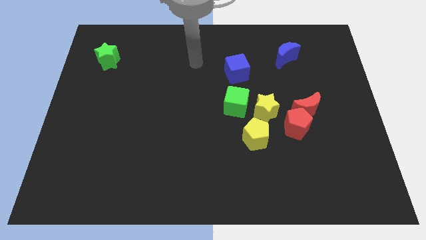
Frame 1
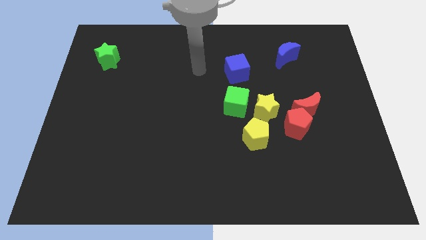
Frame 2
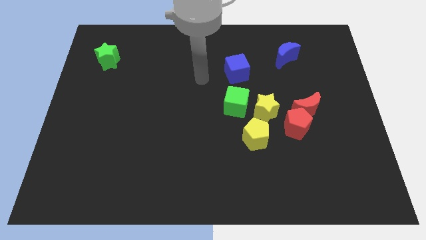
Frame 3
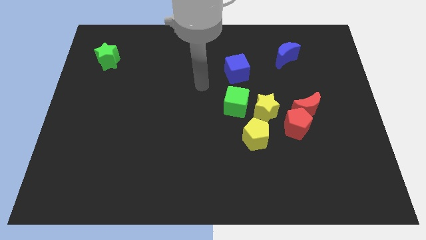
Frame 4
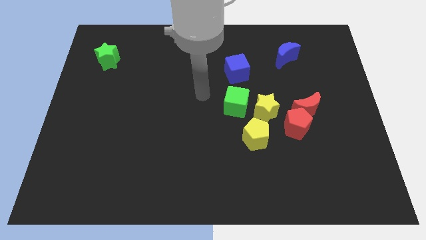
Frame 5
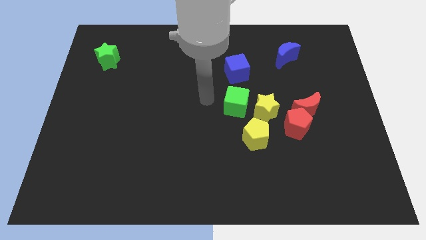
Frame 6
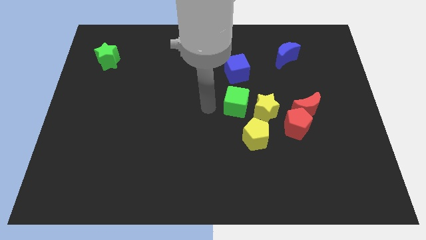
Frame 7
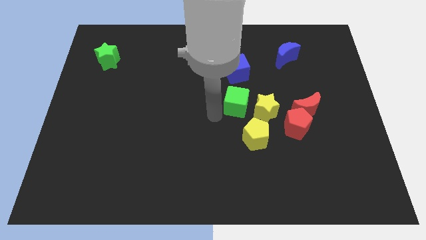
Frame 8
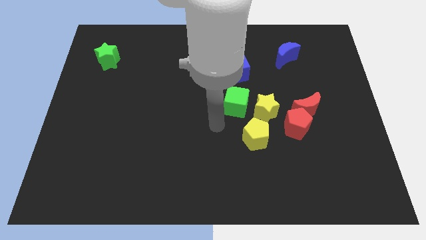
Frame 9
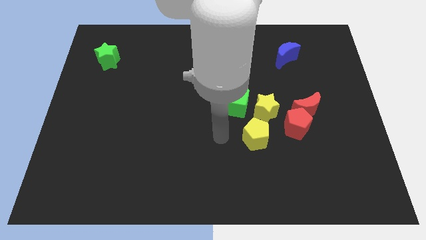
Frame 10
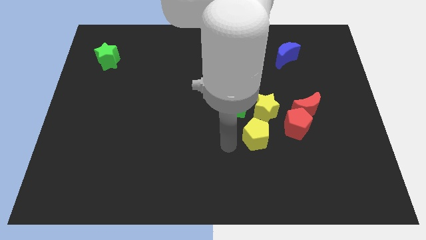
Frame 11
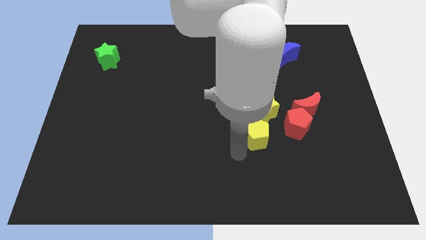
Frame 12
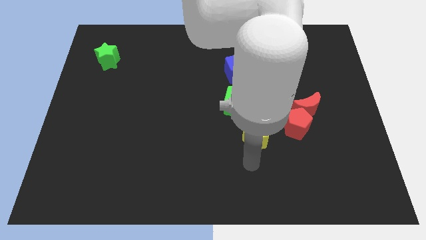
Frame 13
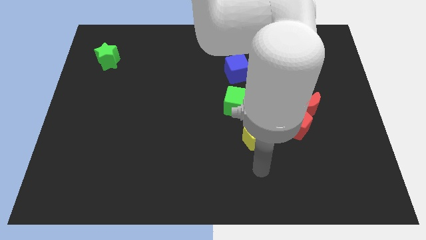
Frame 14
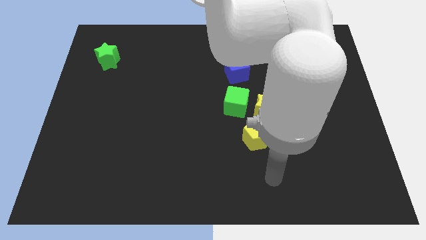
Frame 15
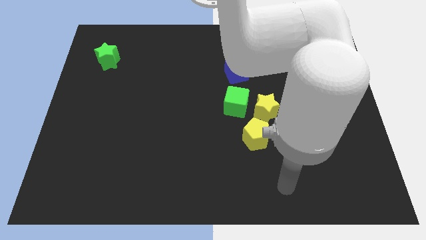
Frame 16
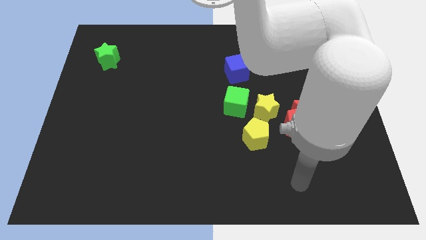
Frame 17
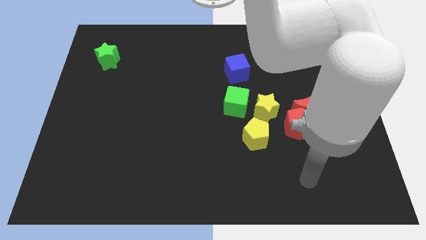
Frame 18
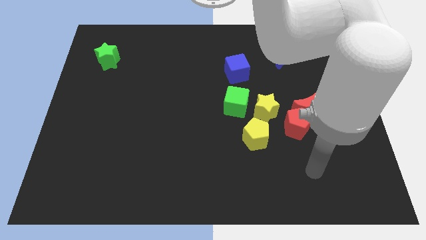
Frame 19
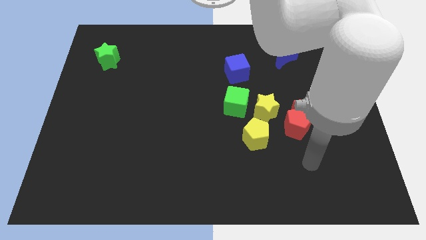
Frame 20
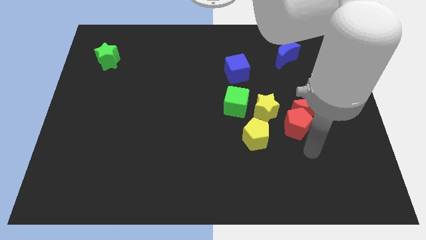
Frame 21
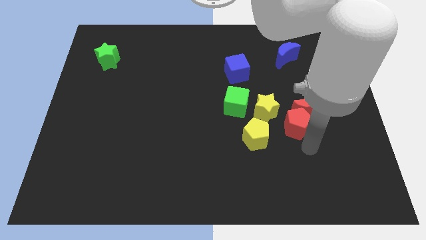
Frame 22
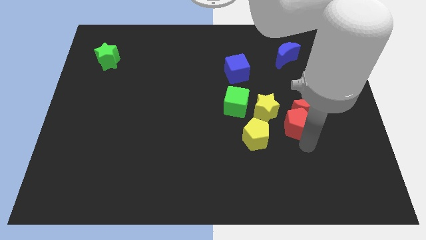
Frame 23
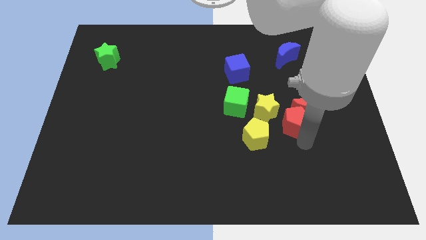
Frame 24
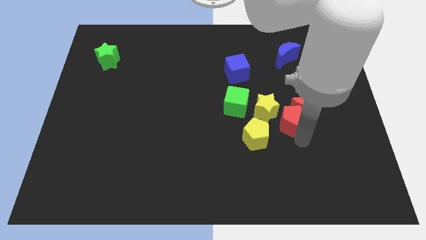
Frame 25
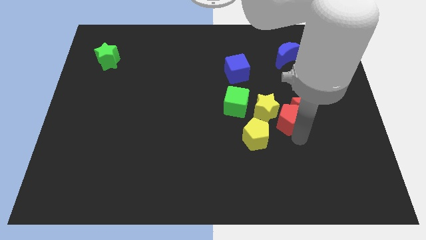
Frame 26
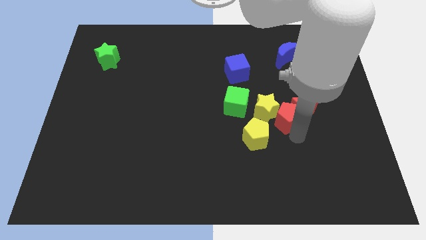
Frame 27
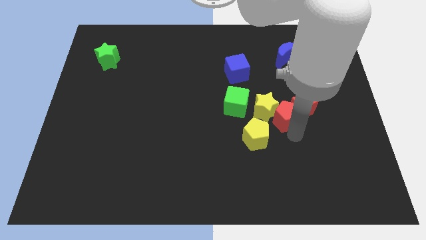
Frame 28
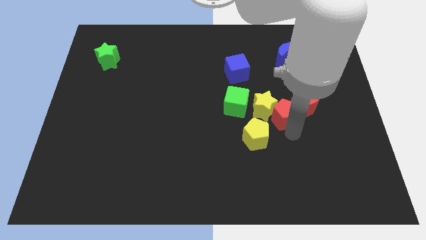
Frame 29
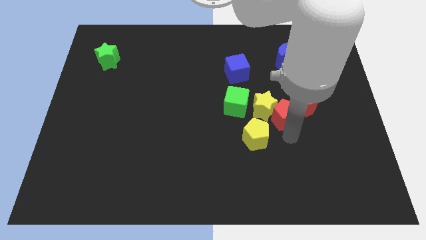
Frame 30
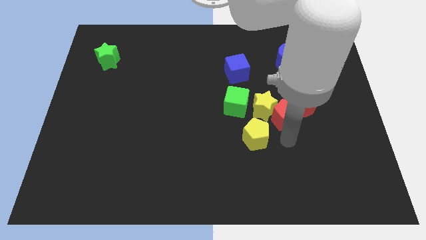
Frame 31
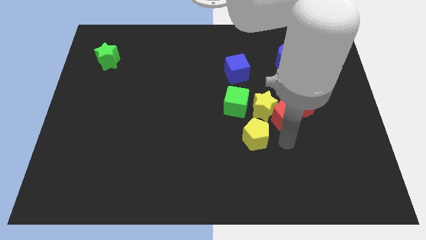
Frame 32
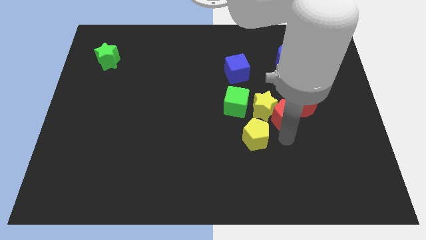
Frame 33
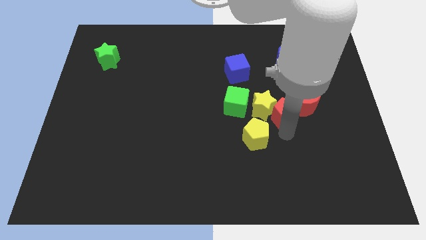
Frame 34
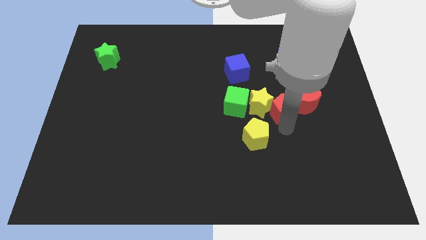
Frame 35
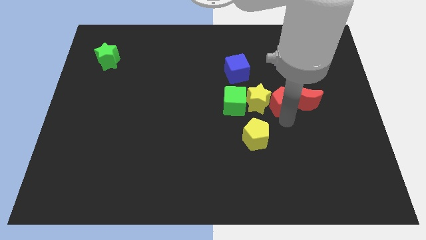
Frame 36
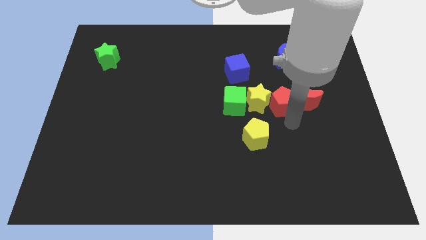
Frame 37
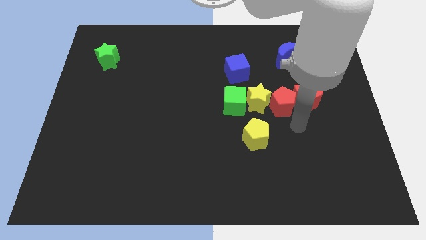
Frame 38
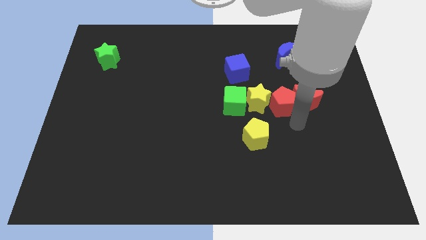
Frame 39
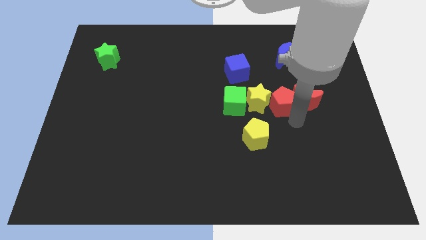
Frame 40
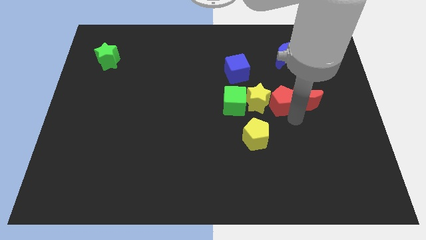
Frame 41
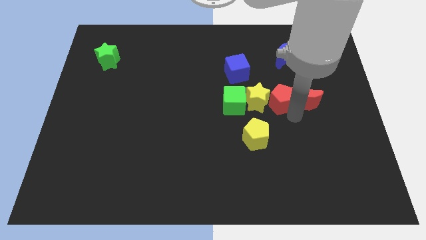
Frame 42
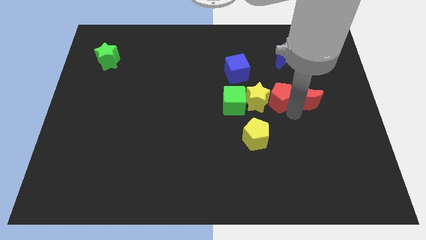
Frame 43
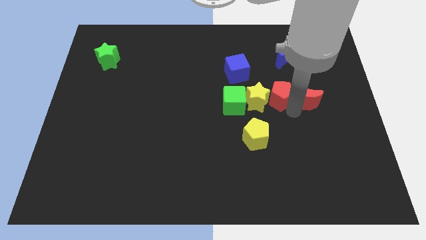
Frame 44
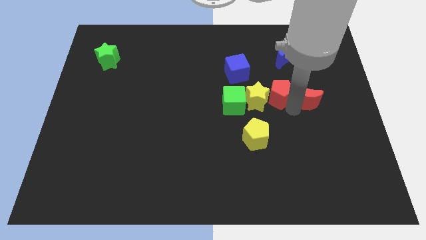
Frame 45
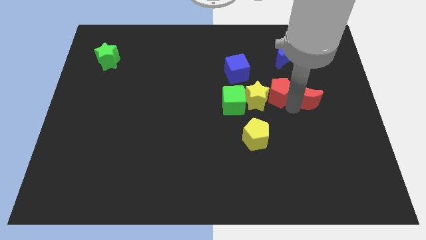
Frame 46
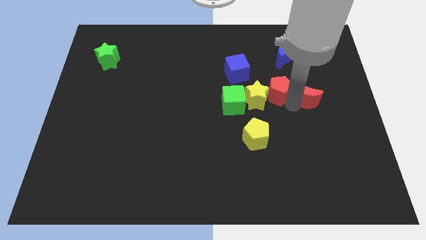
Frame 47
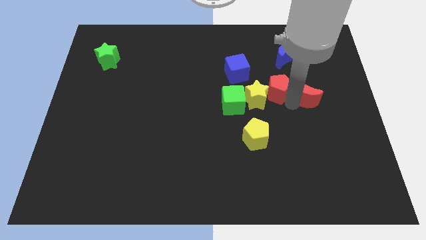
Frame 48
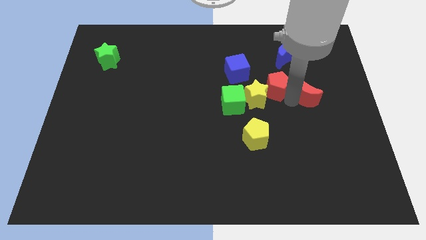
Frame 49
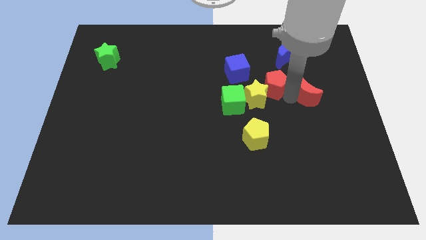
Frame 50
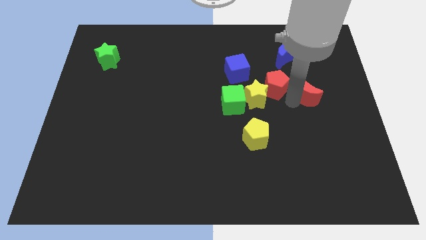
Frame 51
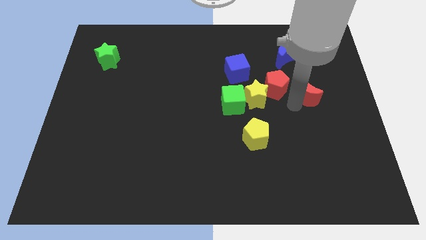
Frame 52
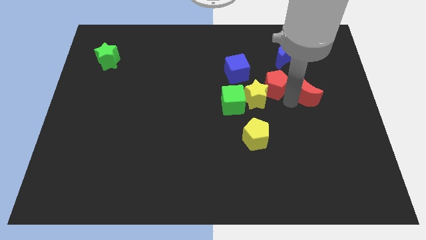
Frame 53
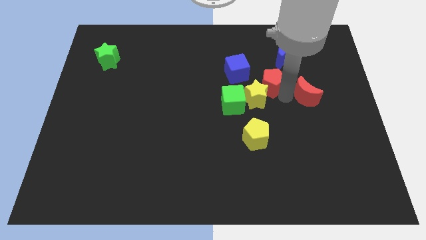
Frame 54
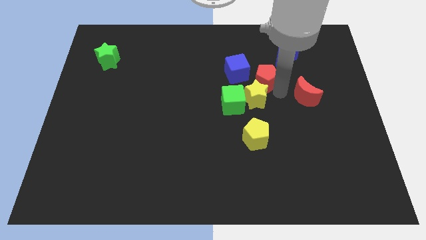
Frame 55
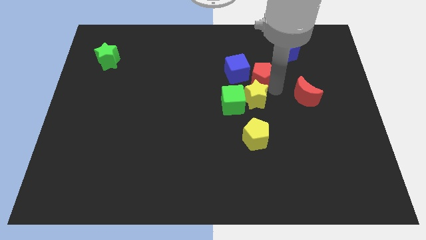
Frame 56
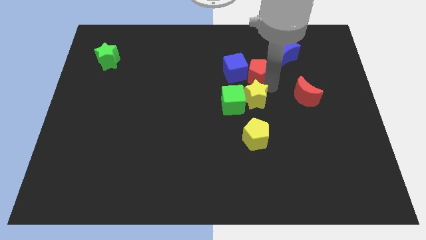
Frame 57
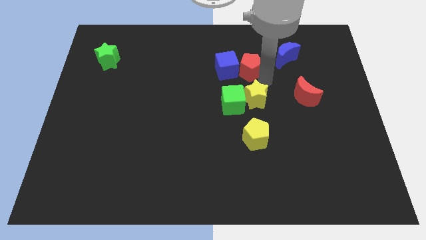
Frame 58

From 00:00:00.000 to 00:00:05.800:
slide the red pentagon to the top of the green cube

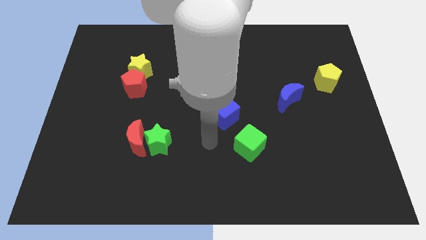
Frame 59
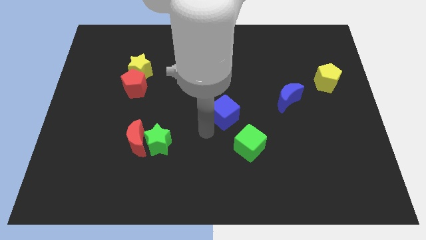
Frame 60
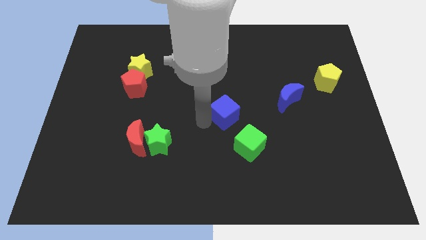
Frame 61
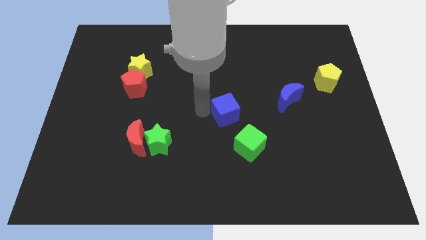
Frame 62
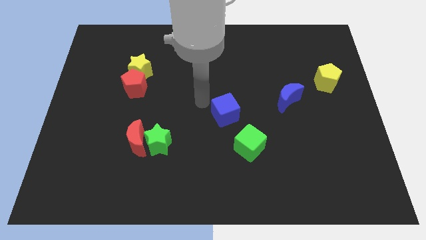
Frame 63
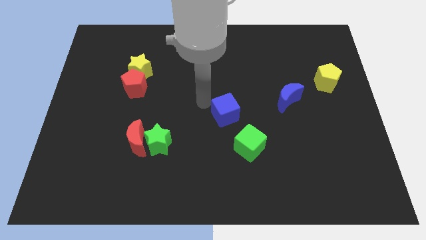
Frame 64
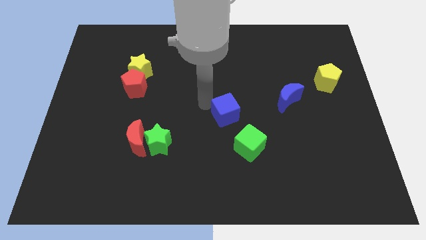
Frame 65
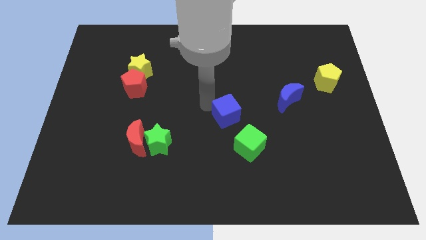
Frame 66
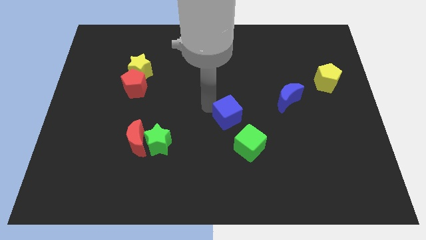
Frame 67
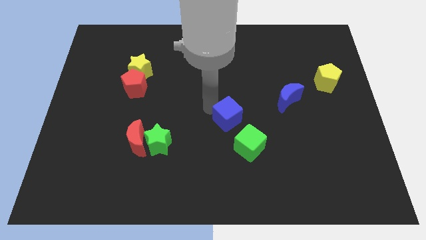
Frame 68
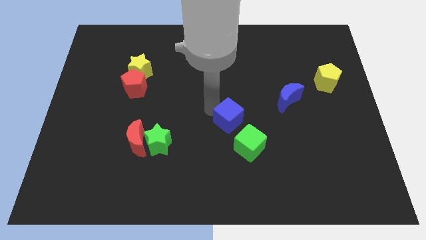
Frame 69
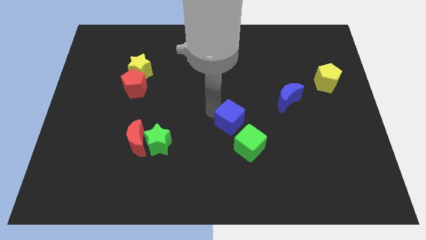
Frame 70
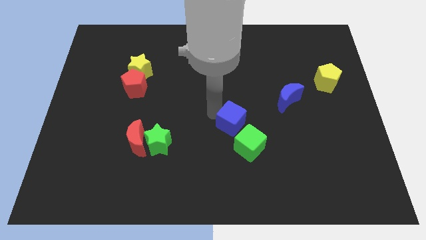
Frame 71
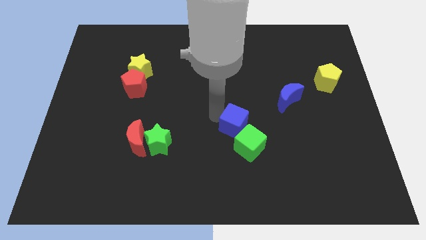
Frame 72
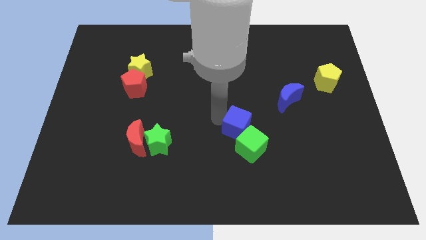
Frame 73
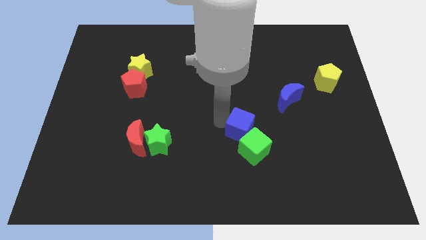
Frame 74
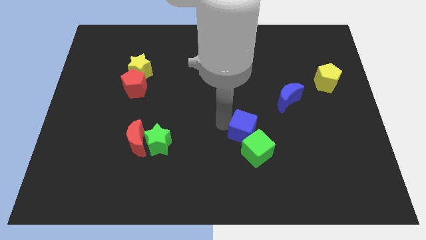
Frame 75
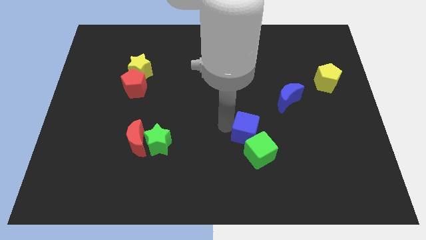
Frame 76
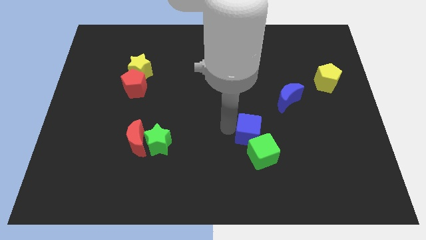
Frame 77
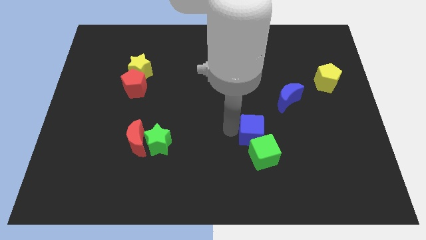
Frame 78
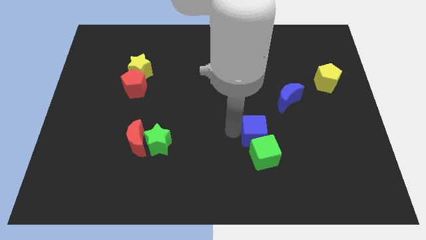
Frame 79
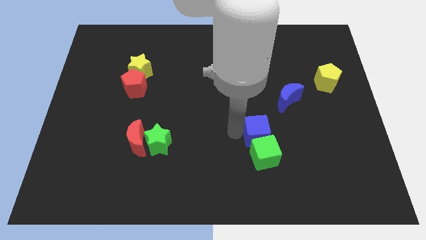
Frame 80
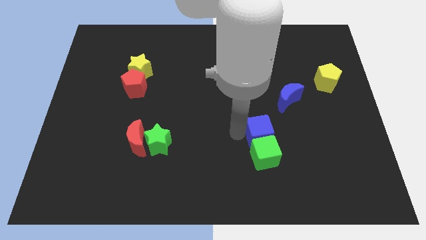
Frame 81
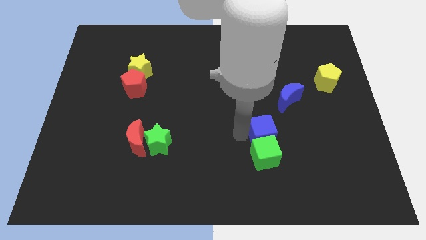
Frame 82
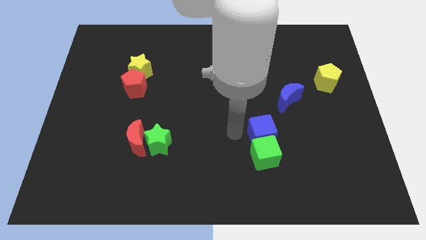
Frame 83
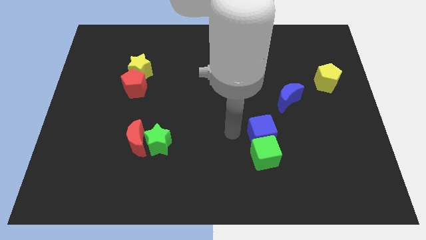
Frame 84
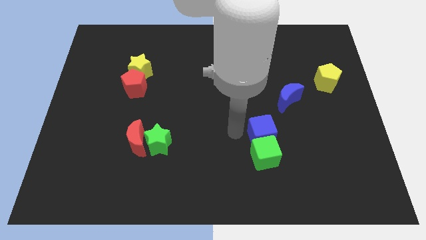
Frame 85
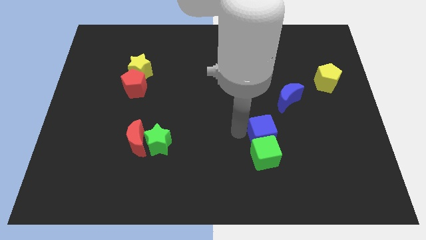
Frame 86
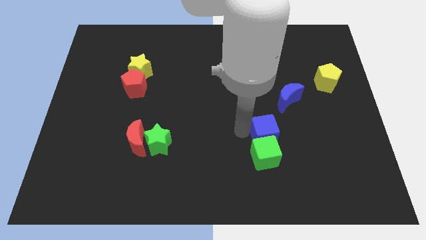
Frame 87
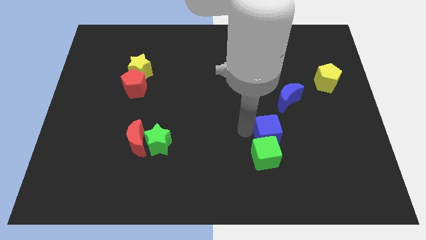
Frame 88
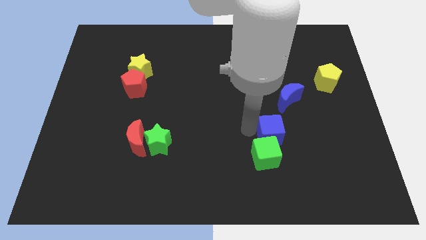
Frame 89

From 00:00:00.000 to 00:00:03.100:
push the blue cube to the bottom of the blue moon
